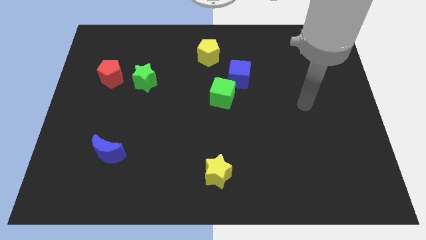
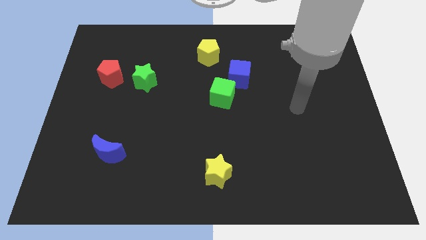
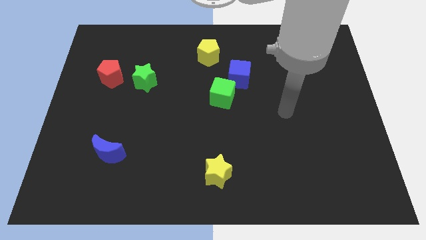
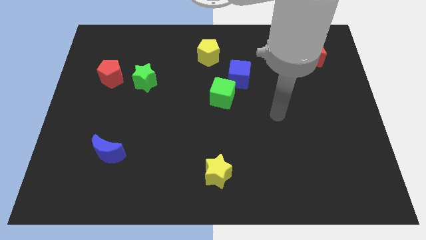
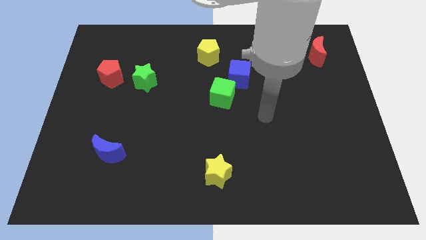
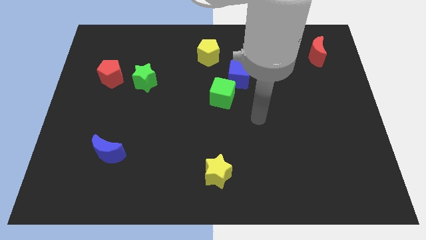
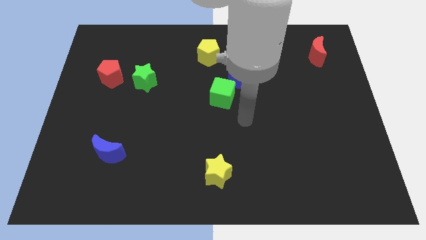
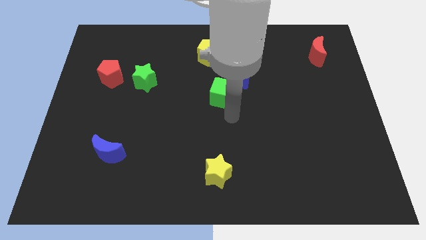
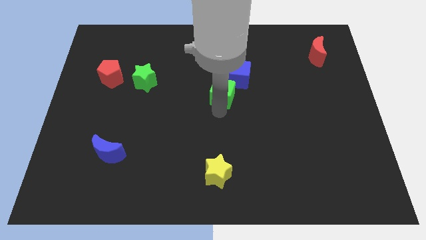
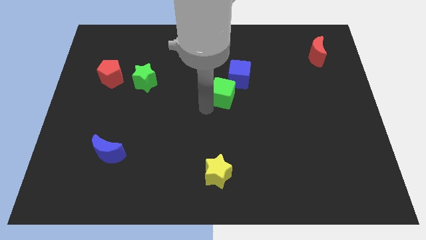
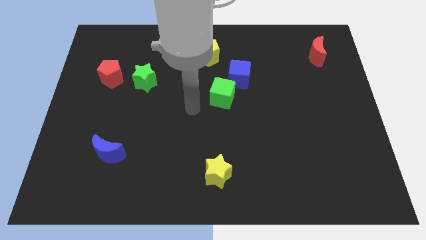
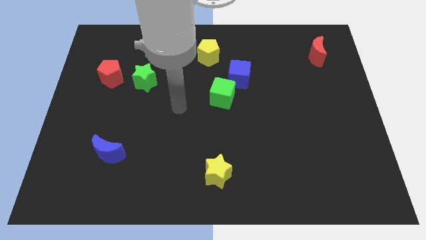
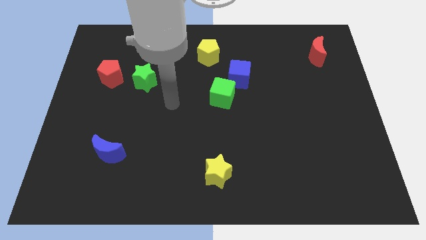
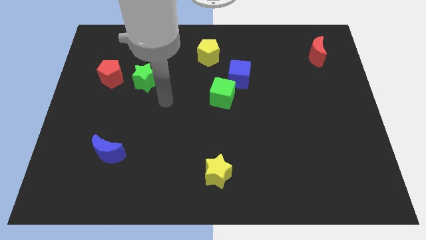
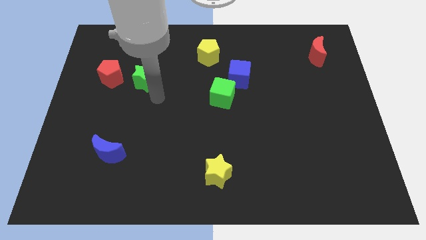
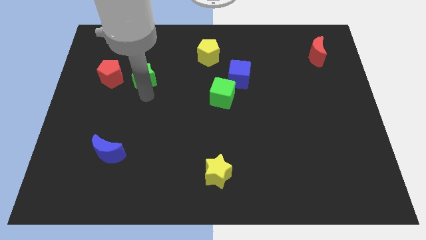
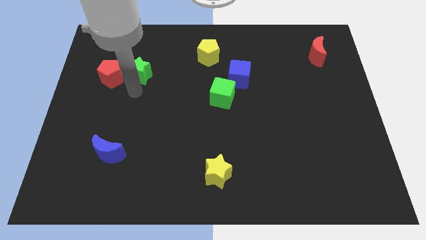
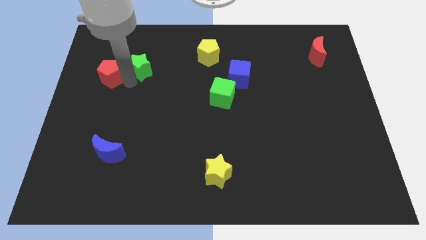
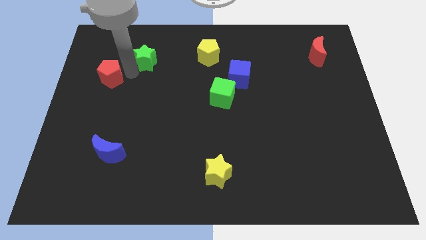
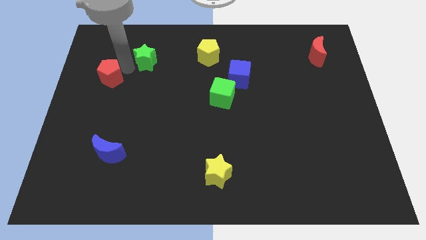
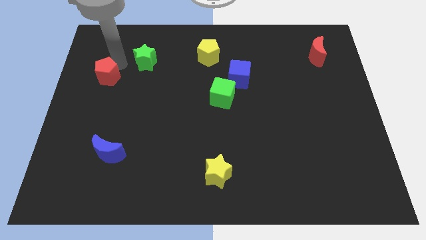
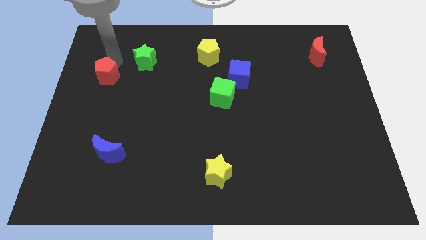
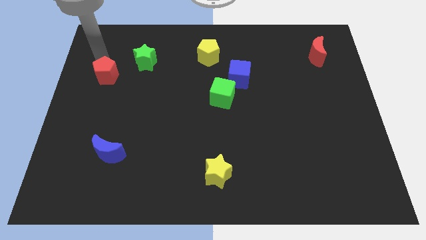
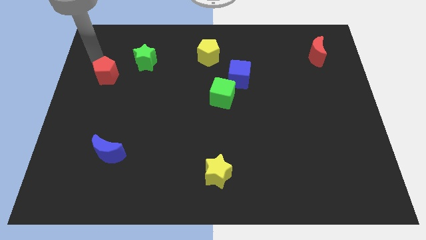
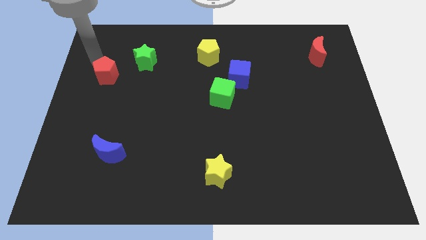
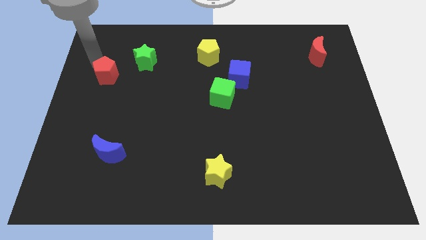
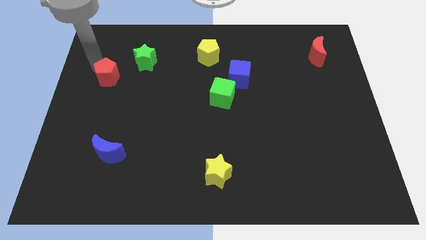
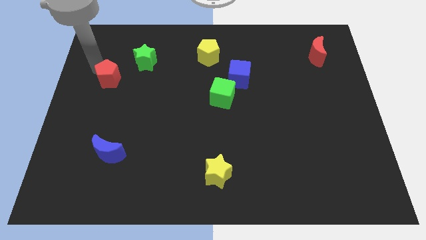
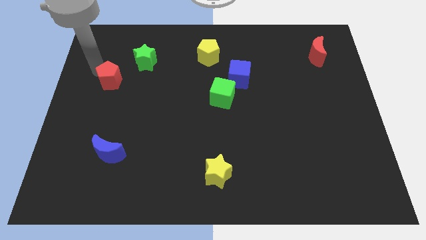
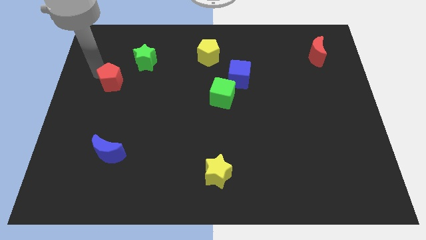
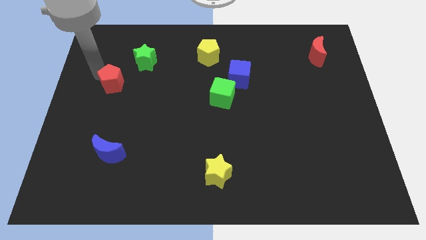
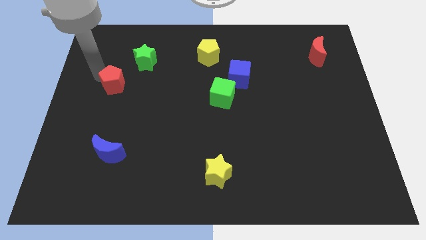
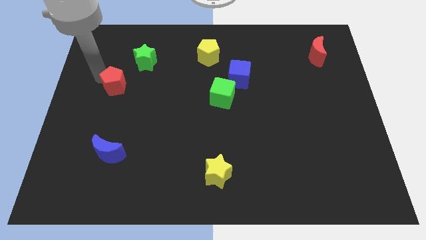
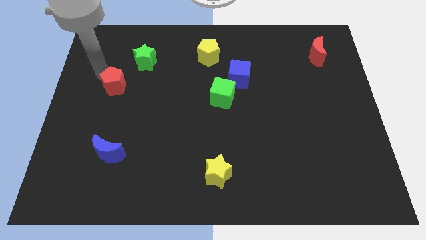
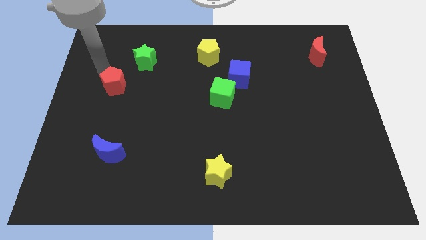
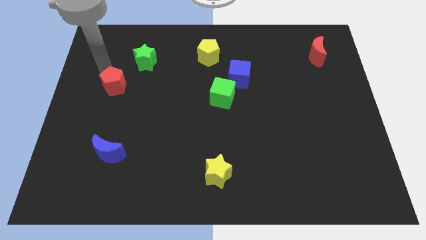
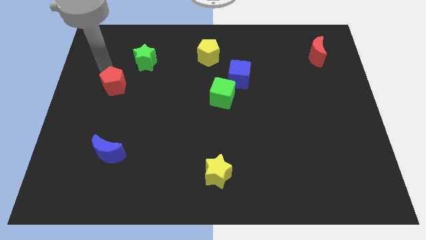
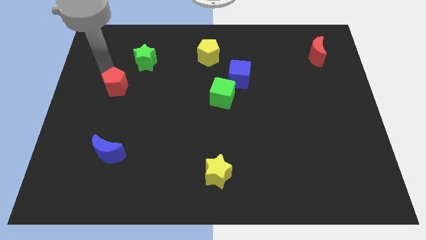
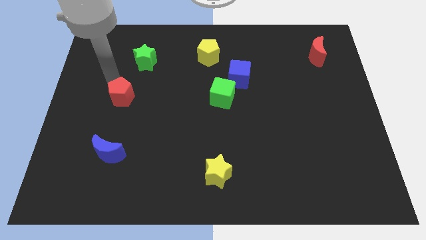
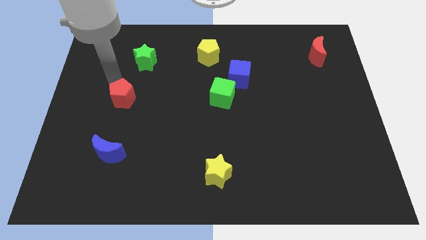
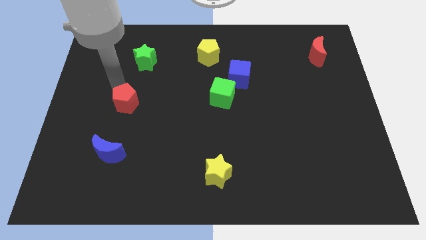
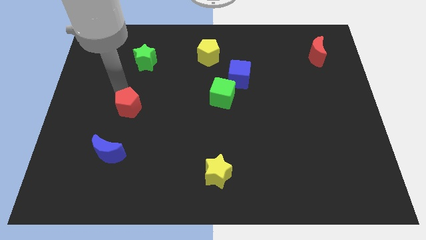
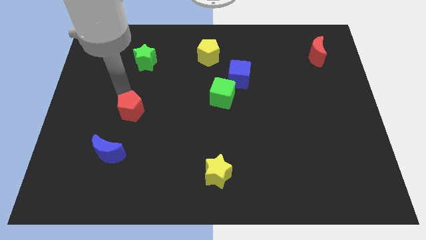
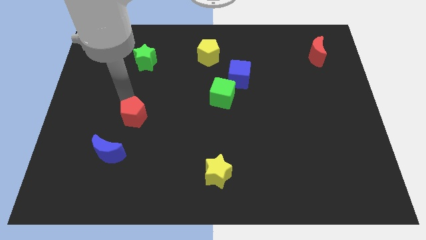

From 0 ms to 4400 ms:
move the red pentagon diagonally up and to the right of the blue moon

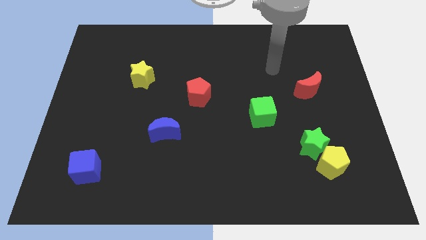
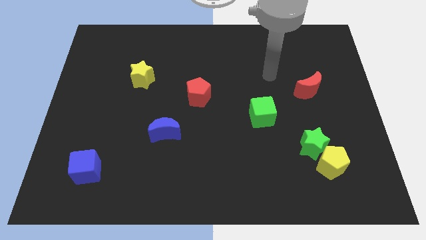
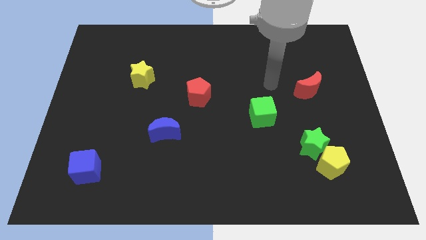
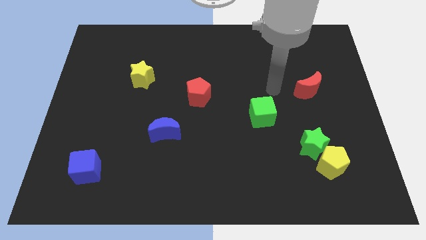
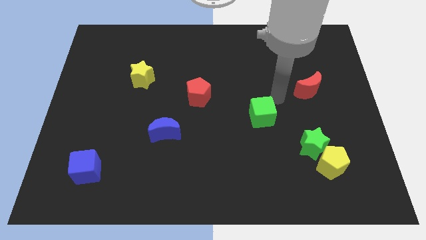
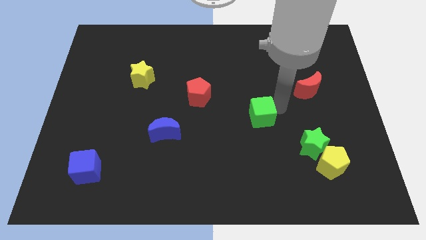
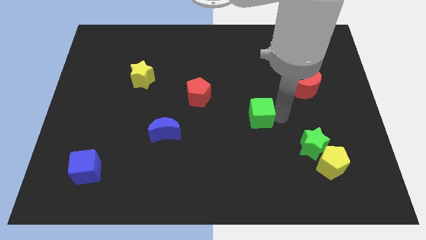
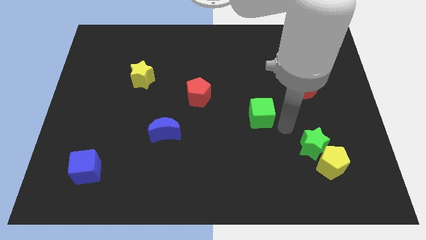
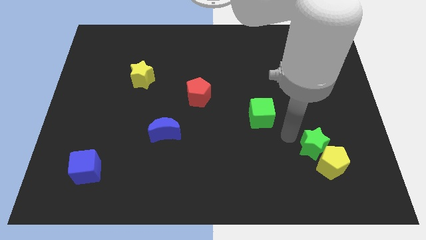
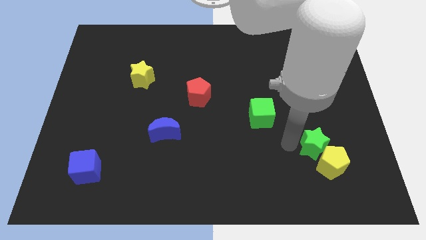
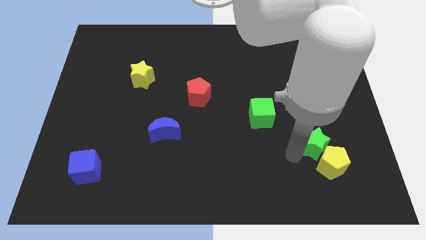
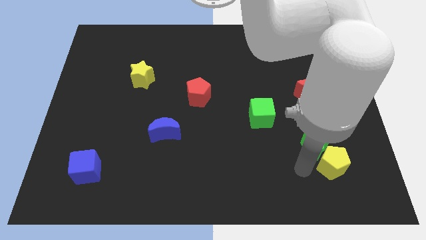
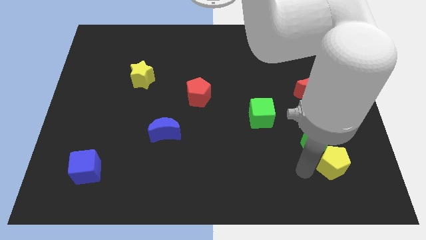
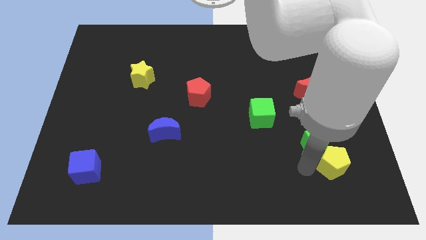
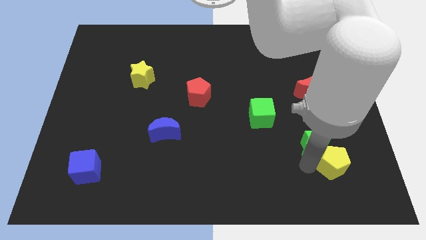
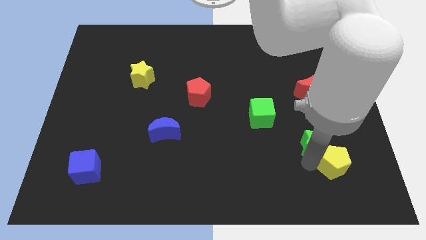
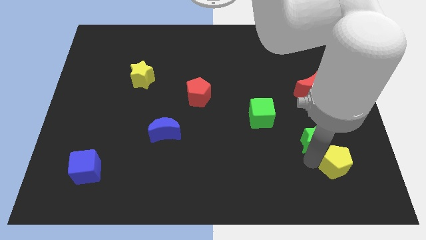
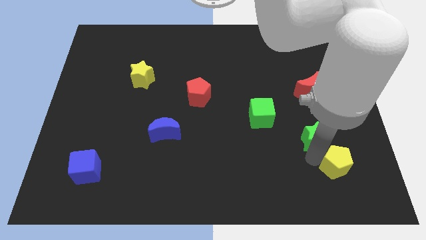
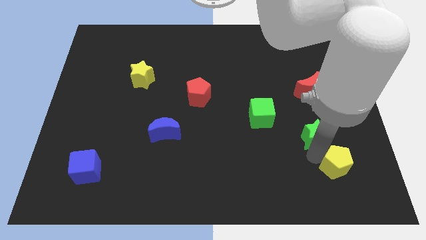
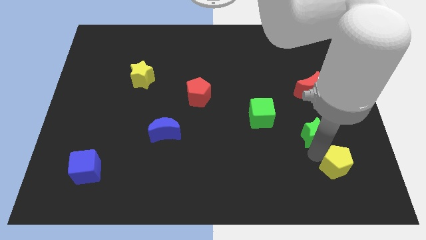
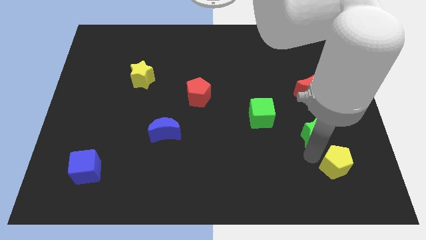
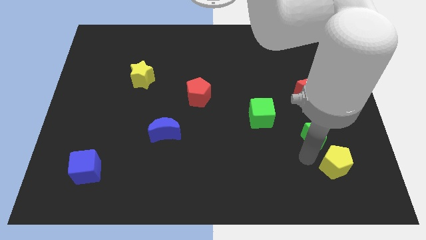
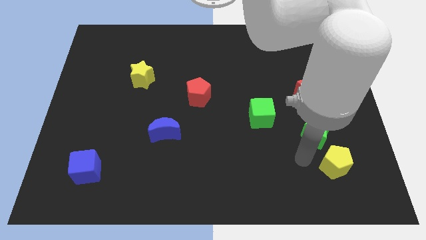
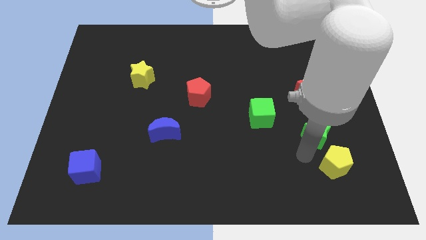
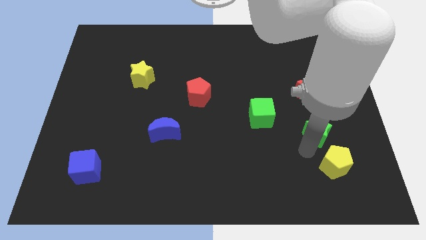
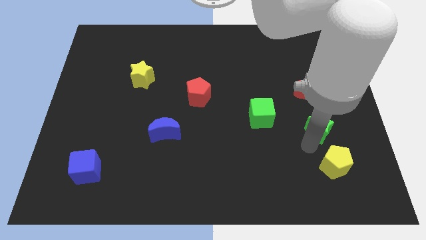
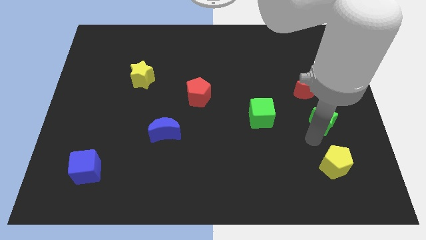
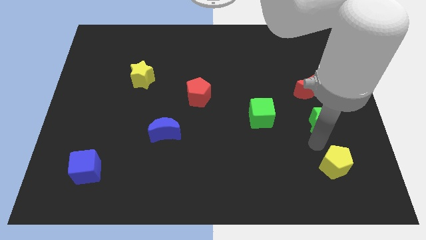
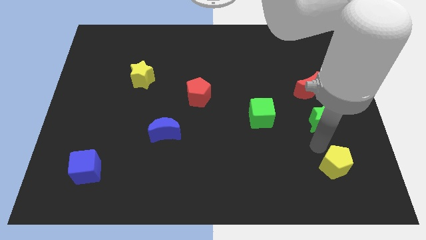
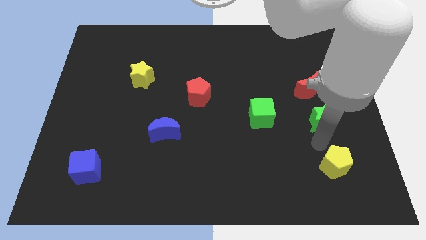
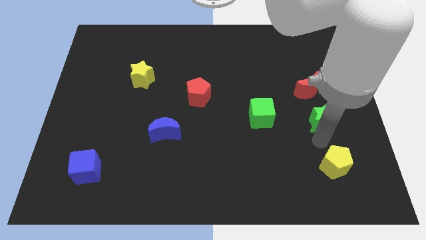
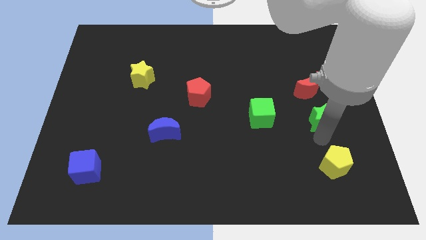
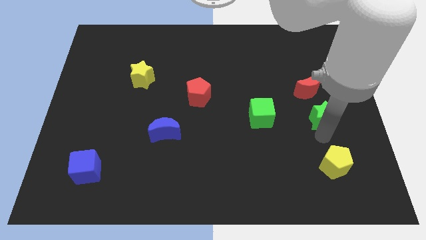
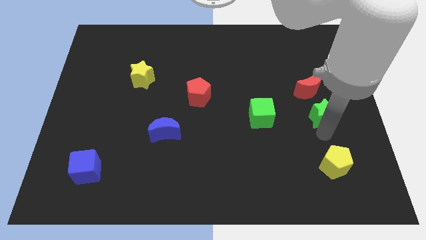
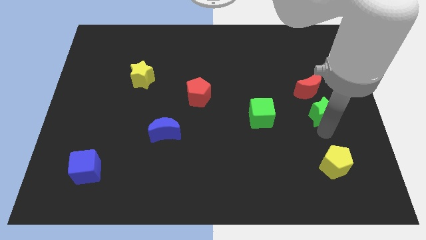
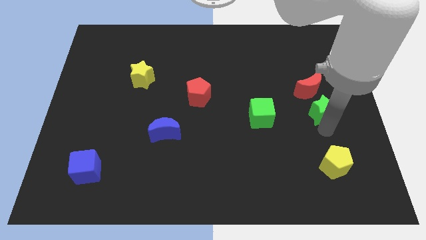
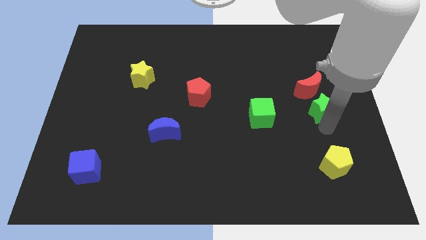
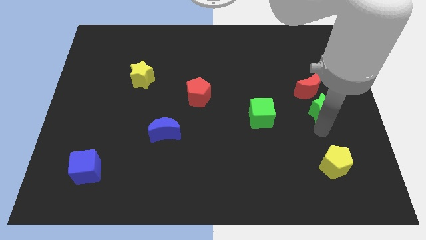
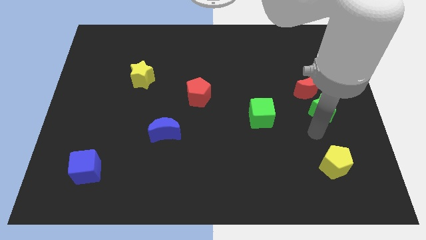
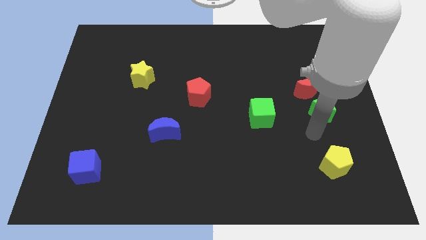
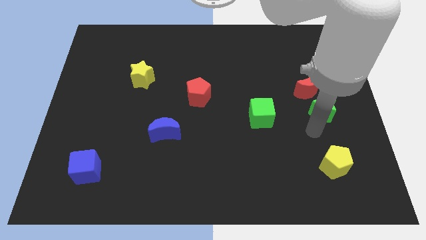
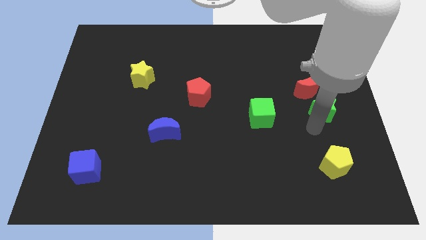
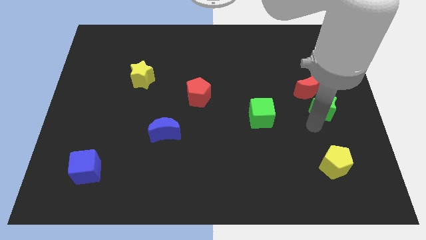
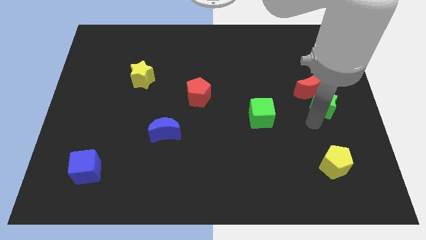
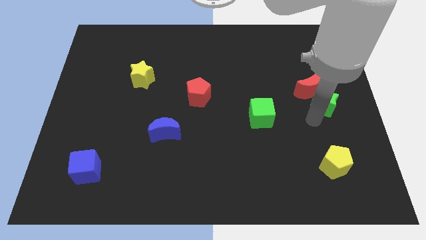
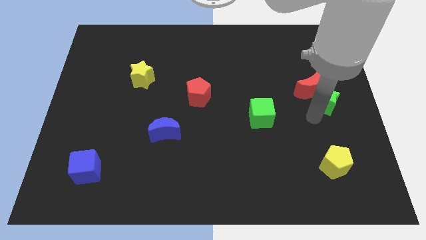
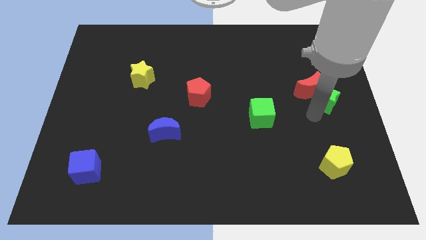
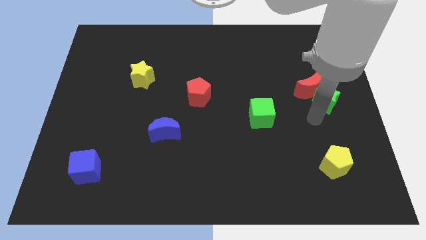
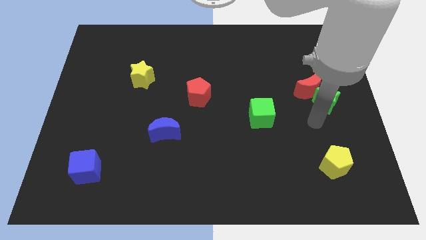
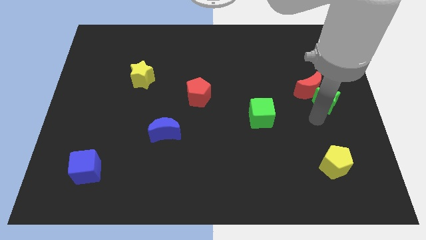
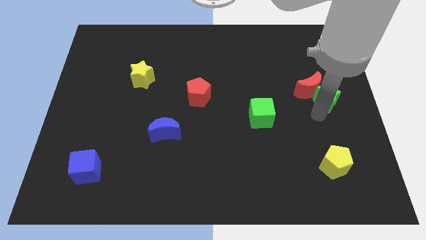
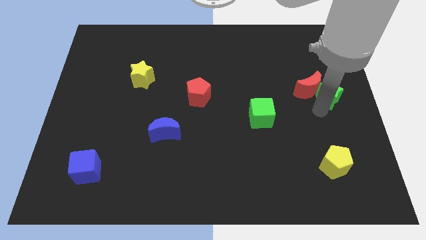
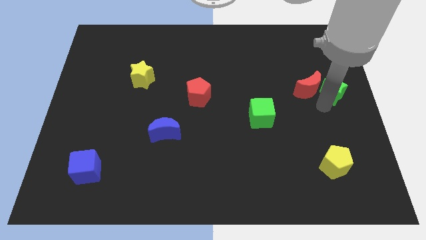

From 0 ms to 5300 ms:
move the green star to the top right of the red moon
